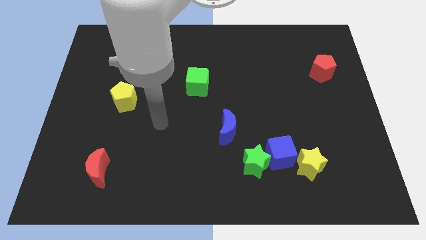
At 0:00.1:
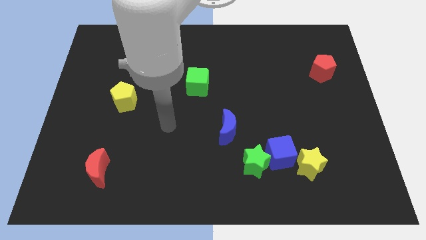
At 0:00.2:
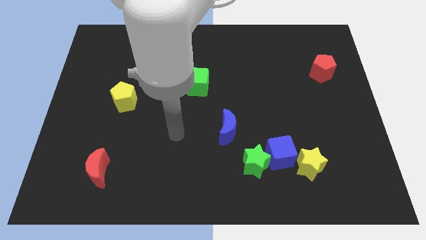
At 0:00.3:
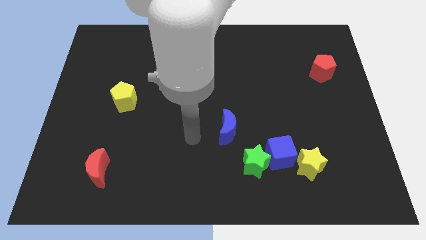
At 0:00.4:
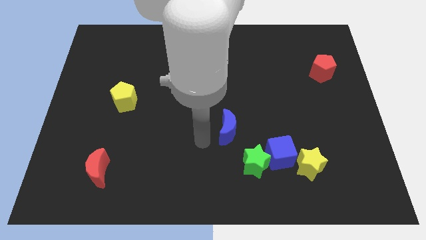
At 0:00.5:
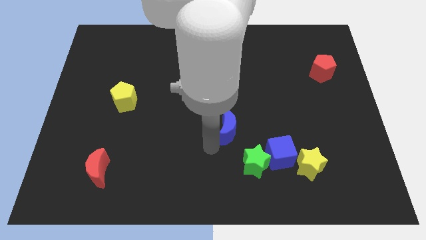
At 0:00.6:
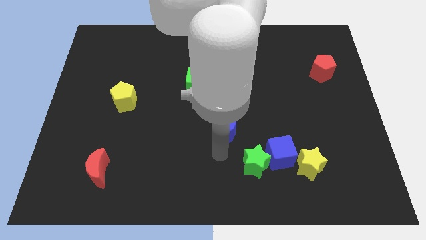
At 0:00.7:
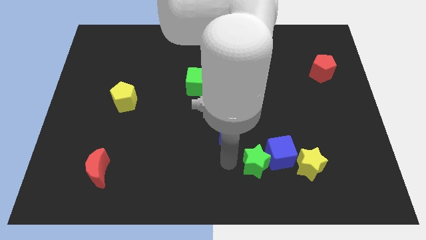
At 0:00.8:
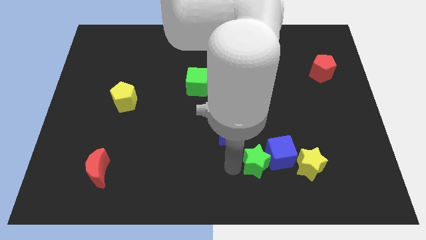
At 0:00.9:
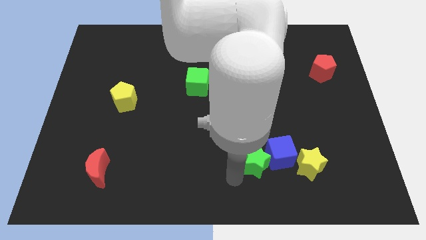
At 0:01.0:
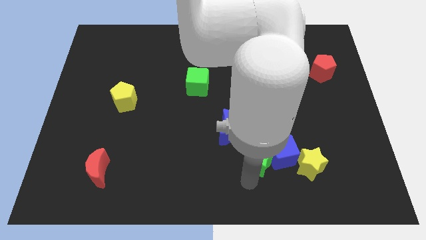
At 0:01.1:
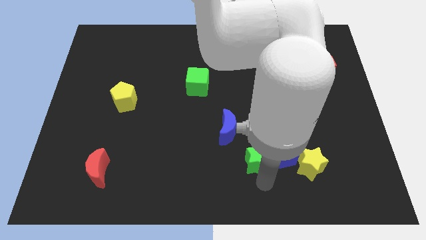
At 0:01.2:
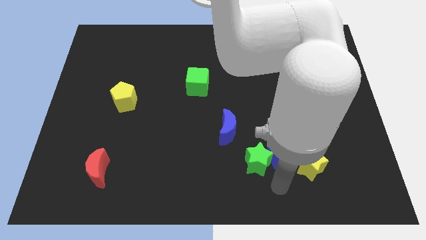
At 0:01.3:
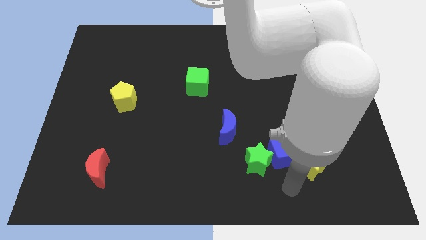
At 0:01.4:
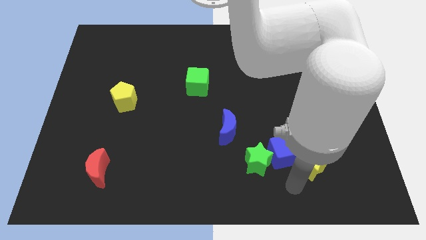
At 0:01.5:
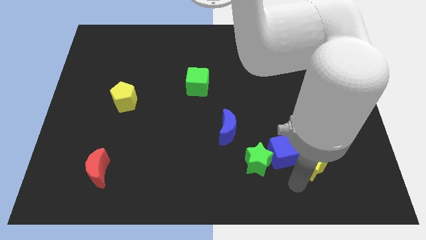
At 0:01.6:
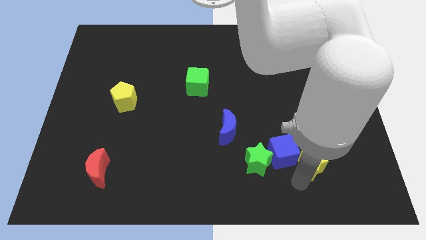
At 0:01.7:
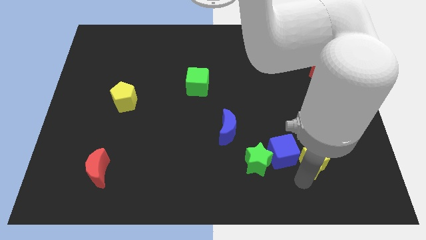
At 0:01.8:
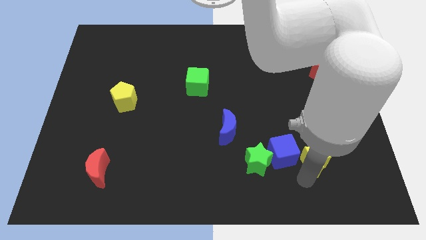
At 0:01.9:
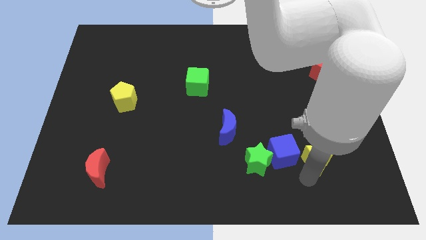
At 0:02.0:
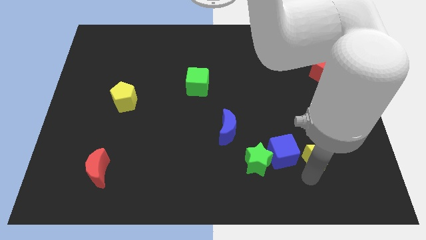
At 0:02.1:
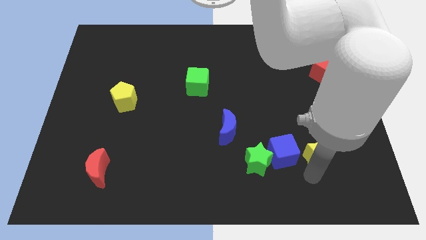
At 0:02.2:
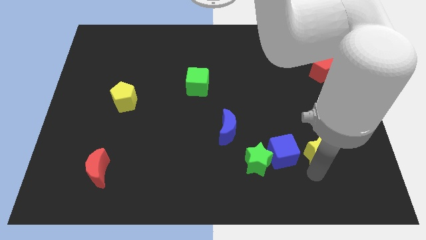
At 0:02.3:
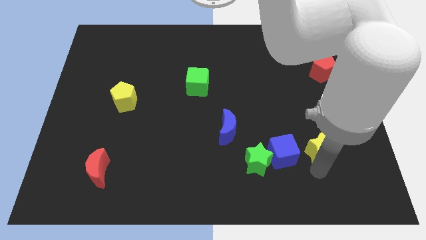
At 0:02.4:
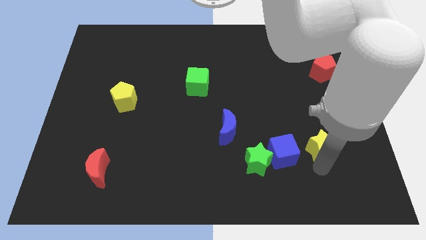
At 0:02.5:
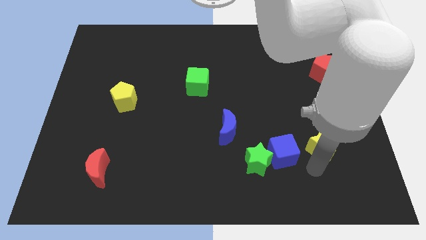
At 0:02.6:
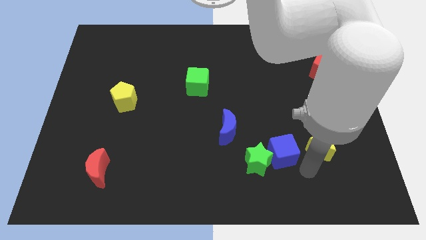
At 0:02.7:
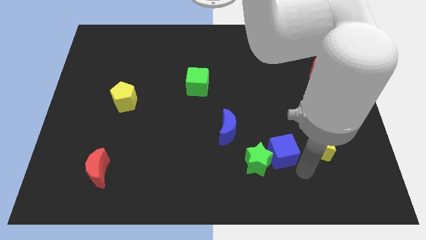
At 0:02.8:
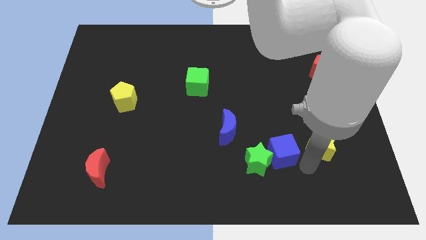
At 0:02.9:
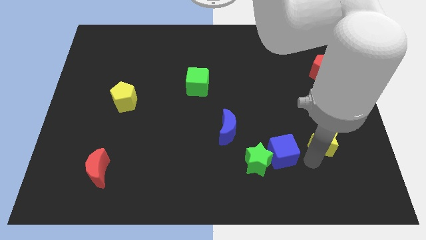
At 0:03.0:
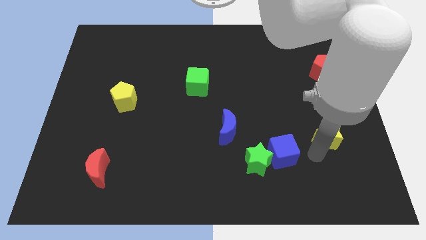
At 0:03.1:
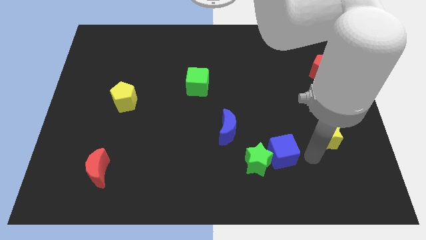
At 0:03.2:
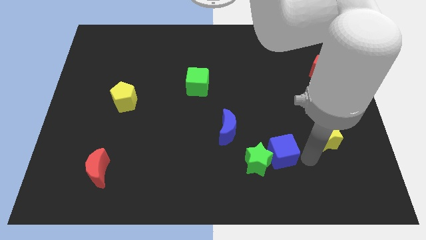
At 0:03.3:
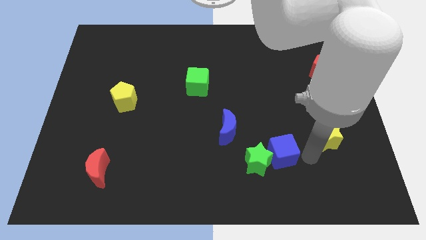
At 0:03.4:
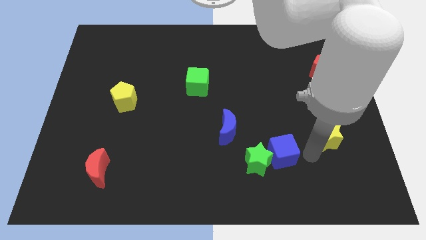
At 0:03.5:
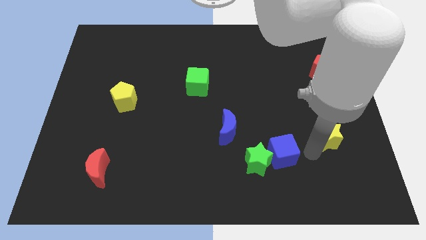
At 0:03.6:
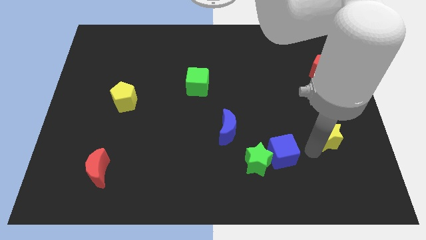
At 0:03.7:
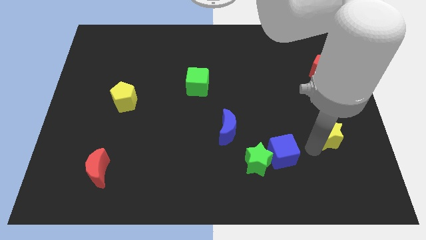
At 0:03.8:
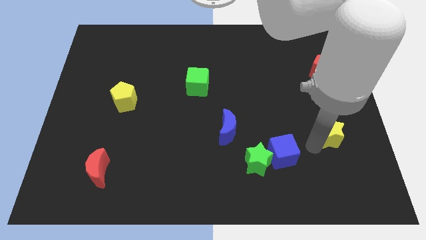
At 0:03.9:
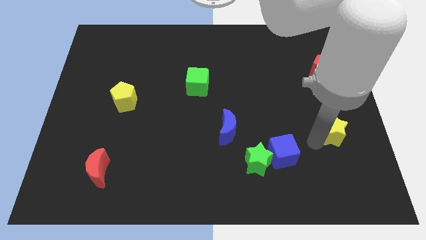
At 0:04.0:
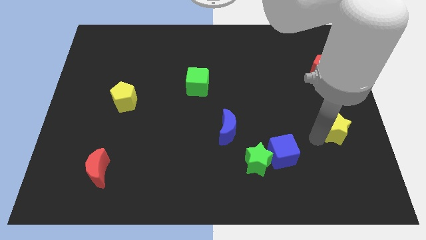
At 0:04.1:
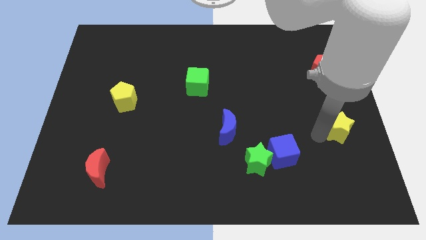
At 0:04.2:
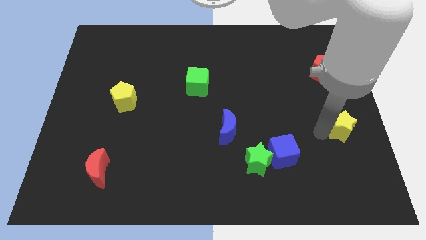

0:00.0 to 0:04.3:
slide the yellow star to the center right

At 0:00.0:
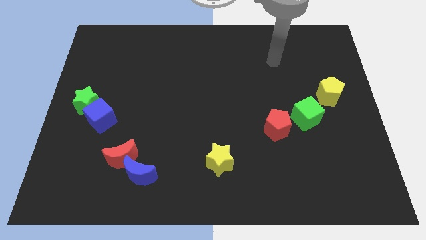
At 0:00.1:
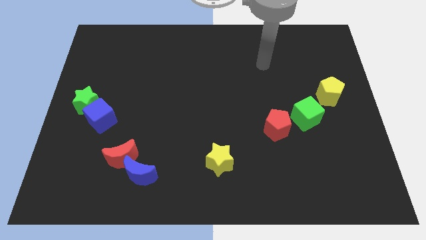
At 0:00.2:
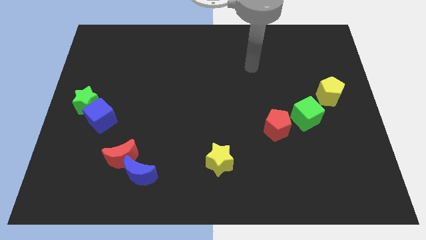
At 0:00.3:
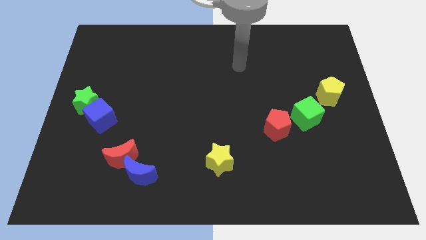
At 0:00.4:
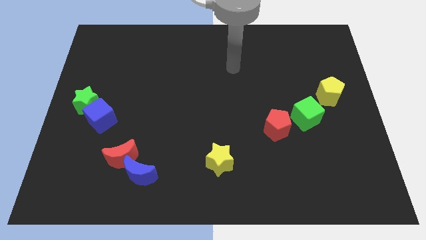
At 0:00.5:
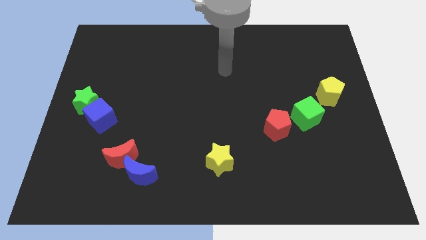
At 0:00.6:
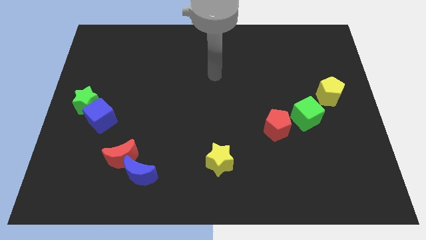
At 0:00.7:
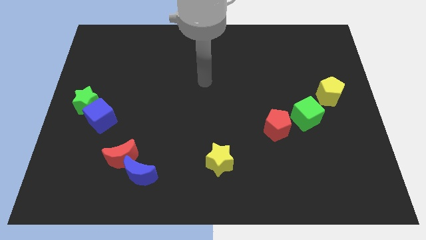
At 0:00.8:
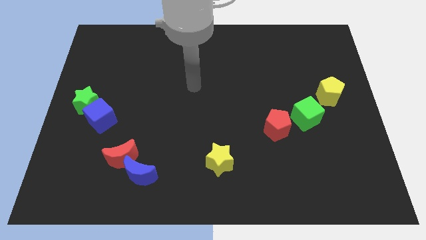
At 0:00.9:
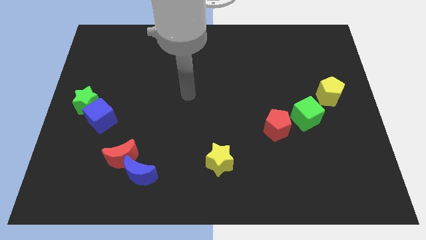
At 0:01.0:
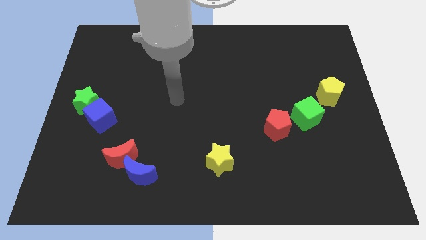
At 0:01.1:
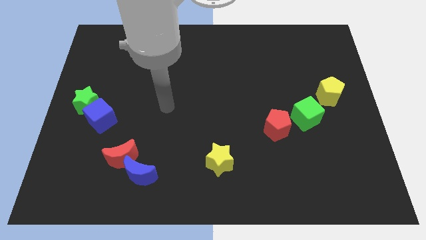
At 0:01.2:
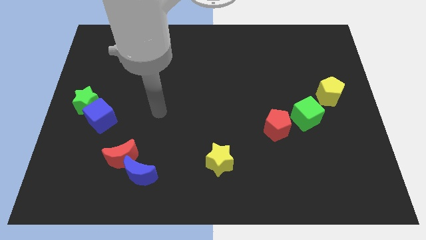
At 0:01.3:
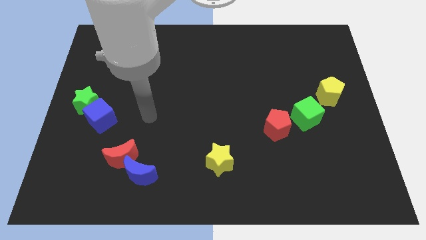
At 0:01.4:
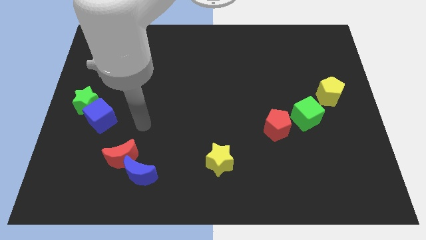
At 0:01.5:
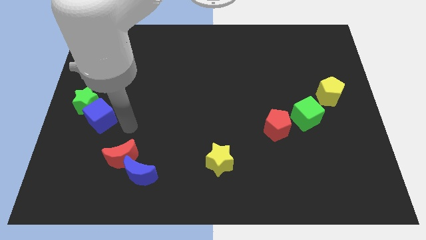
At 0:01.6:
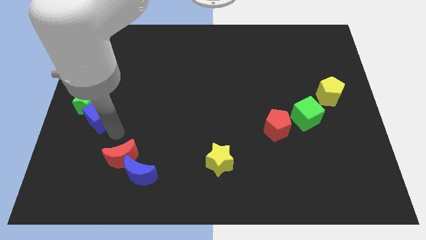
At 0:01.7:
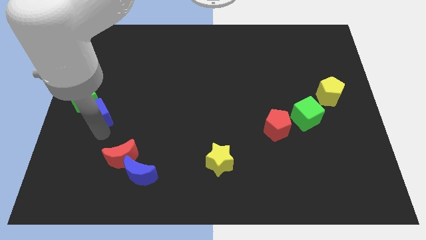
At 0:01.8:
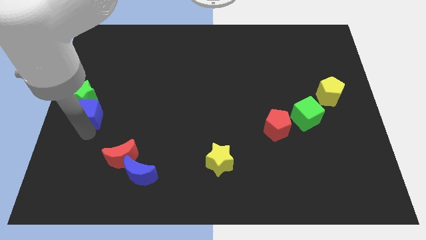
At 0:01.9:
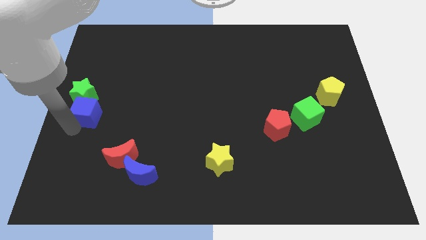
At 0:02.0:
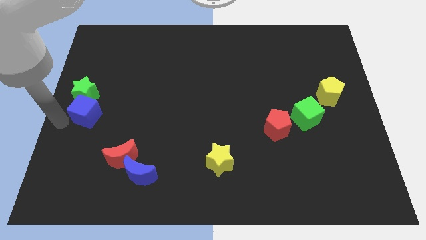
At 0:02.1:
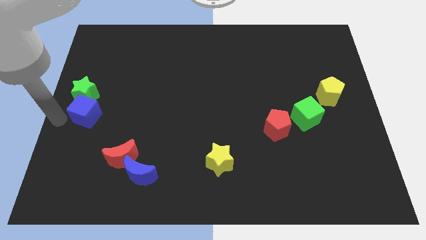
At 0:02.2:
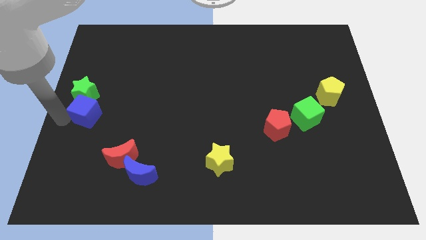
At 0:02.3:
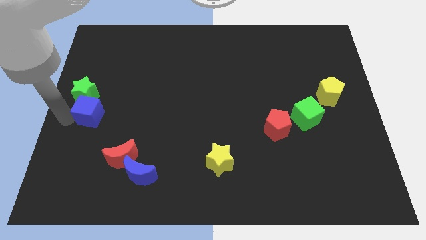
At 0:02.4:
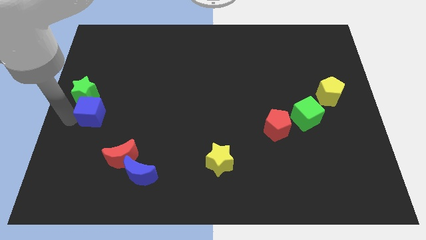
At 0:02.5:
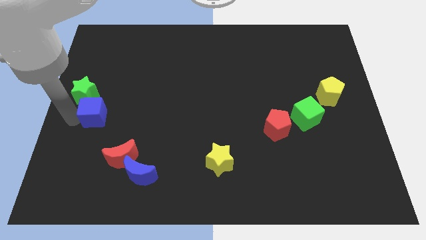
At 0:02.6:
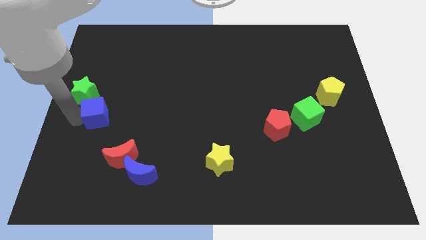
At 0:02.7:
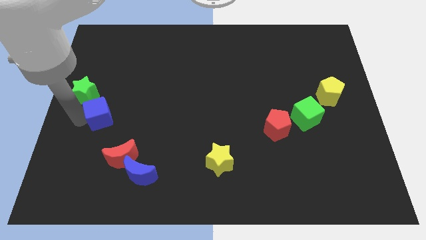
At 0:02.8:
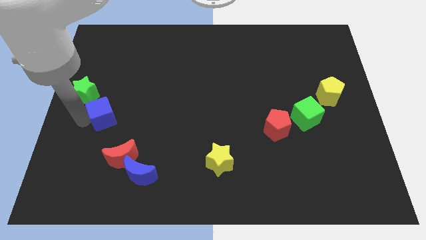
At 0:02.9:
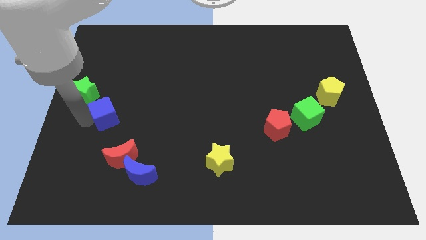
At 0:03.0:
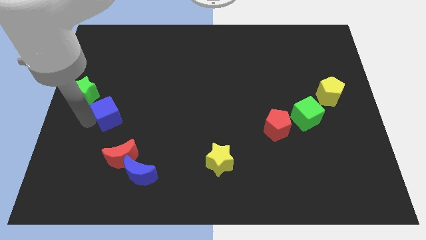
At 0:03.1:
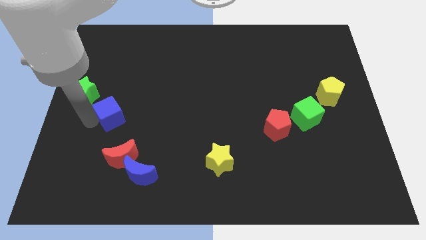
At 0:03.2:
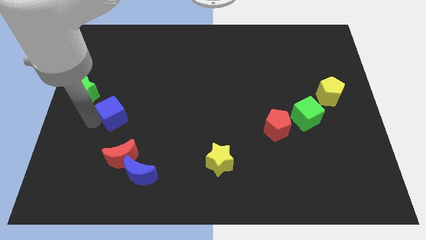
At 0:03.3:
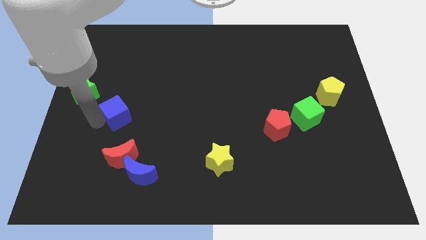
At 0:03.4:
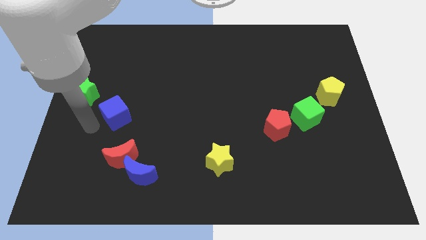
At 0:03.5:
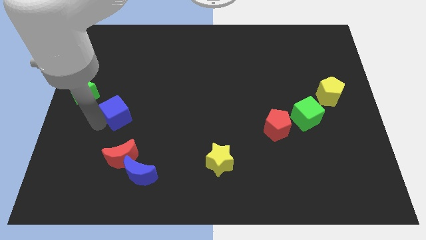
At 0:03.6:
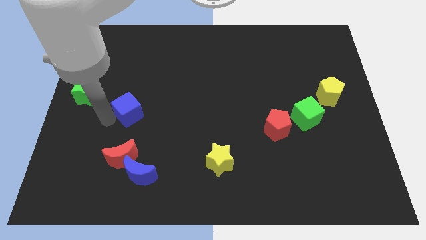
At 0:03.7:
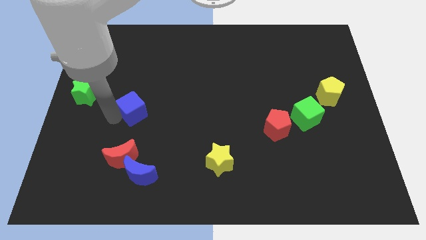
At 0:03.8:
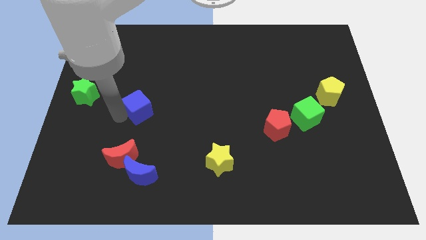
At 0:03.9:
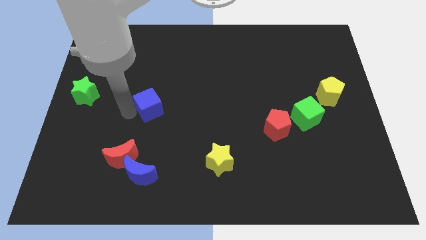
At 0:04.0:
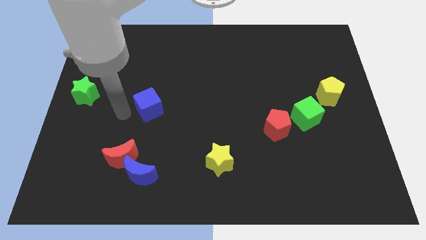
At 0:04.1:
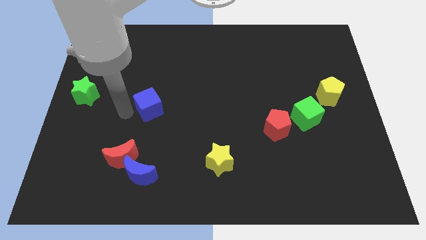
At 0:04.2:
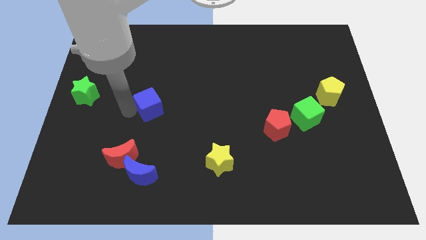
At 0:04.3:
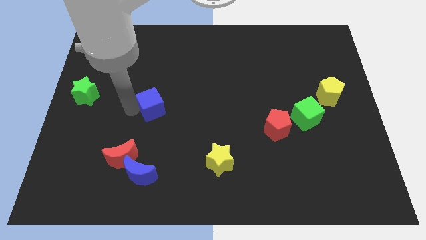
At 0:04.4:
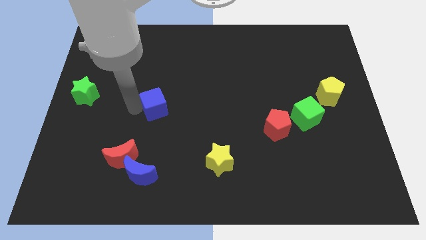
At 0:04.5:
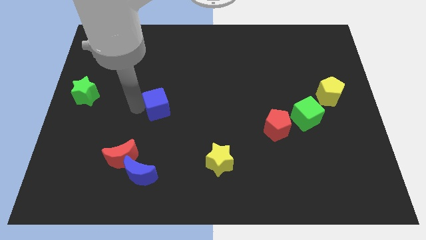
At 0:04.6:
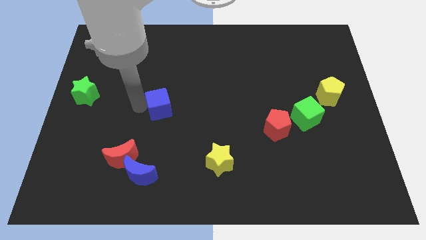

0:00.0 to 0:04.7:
move the blue cube to the middle
